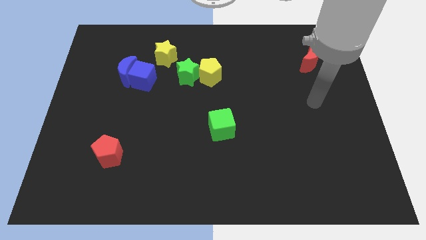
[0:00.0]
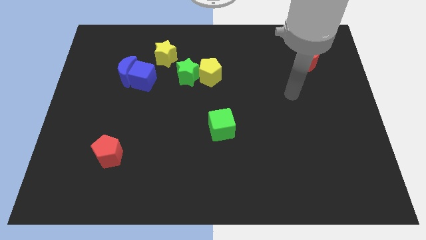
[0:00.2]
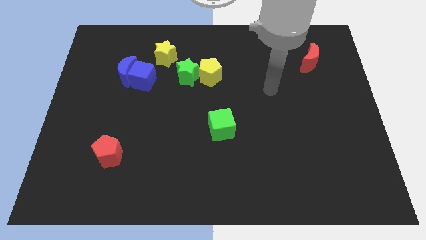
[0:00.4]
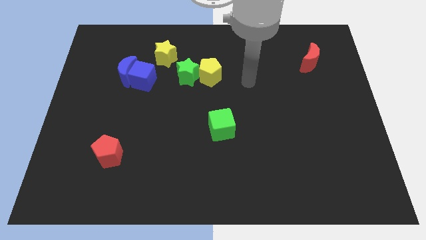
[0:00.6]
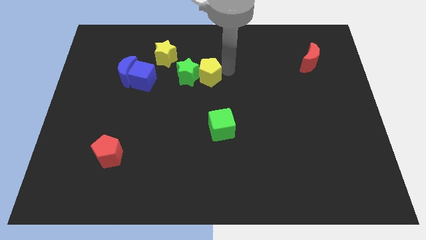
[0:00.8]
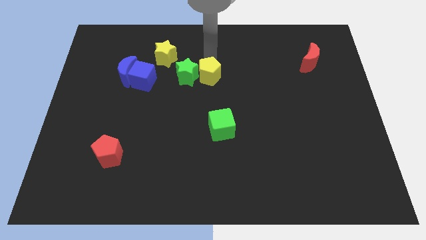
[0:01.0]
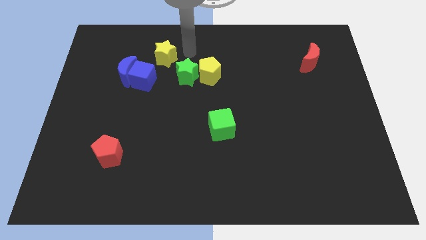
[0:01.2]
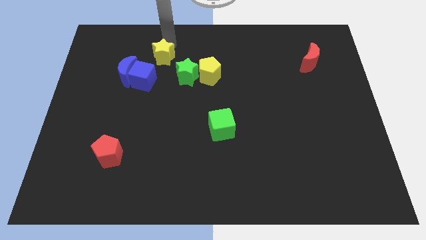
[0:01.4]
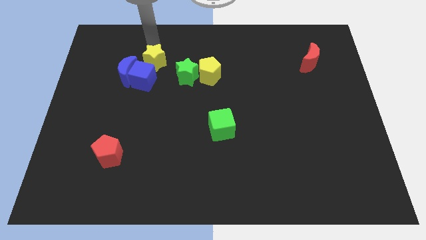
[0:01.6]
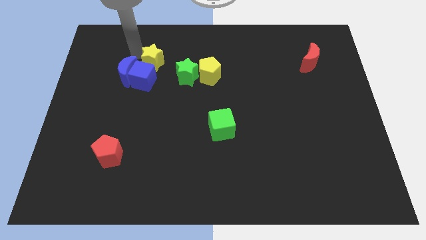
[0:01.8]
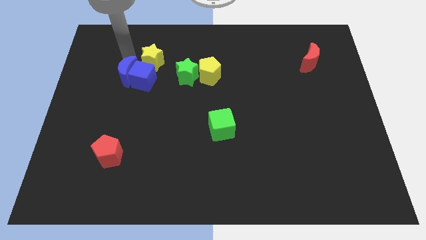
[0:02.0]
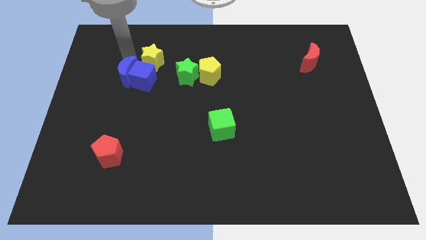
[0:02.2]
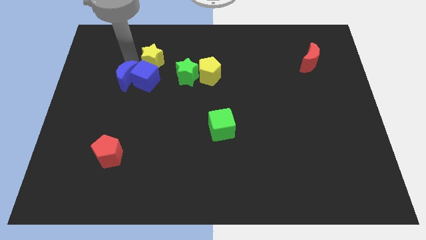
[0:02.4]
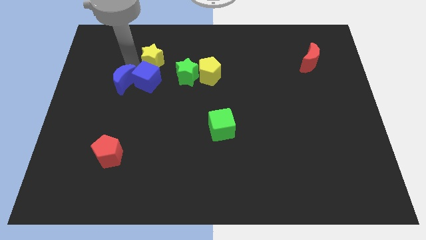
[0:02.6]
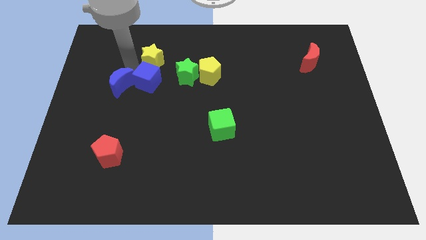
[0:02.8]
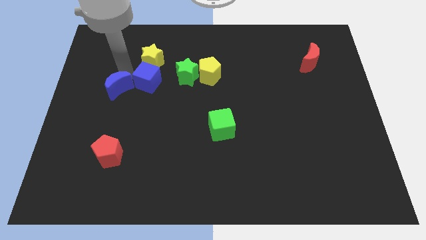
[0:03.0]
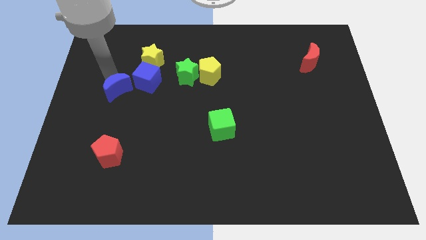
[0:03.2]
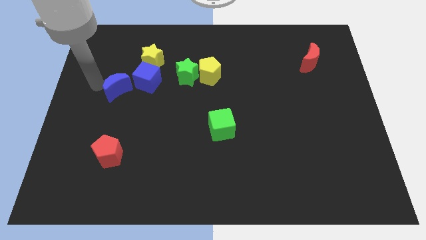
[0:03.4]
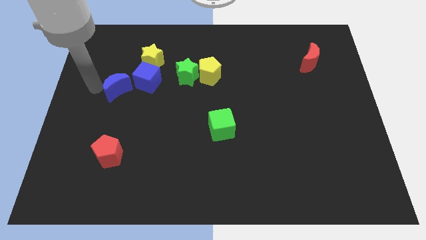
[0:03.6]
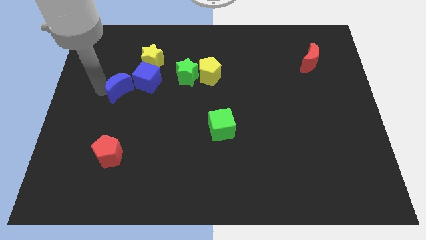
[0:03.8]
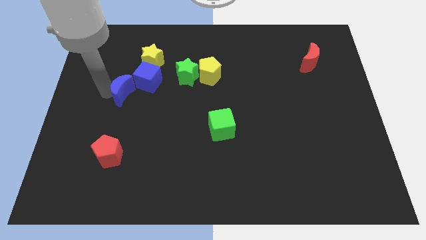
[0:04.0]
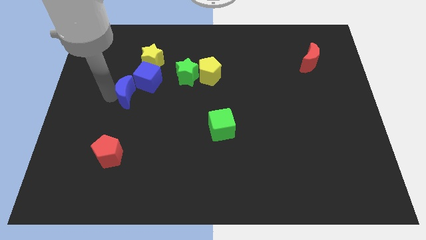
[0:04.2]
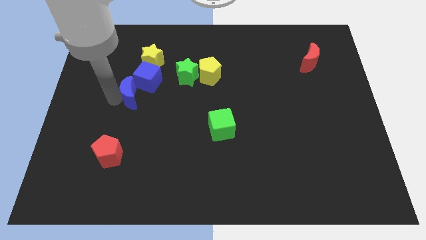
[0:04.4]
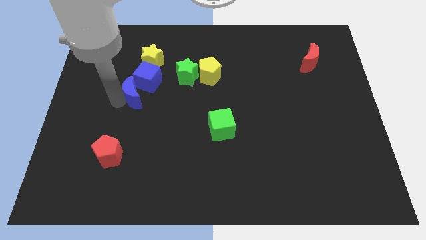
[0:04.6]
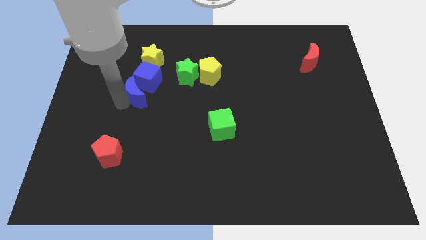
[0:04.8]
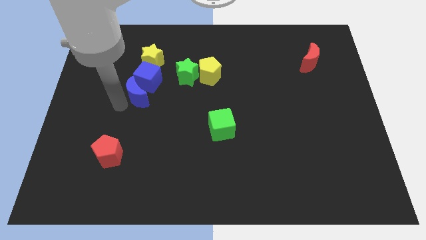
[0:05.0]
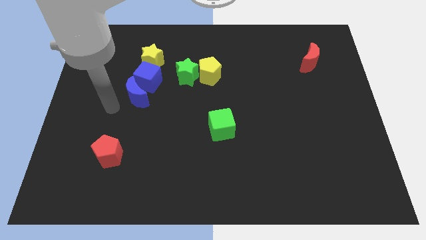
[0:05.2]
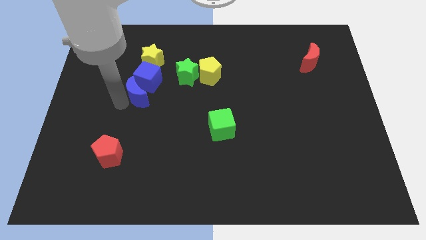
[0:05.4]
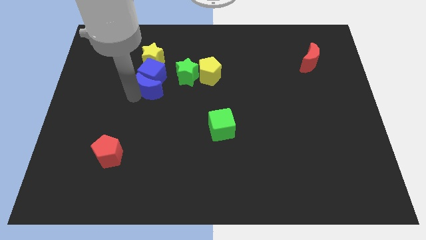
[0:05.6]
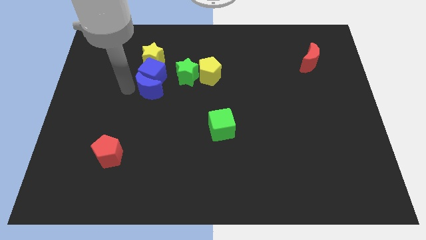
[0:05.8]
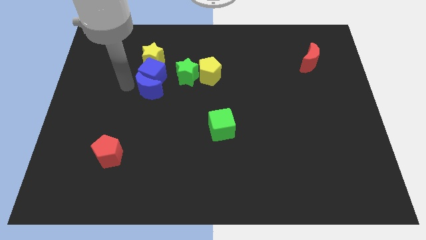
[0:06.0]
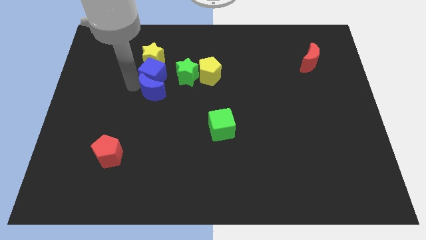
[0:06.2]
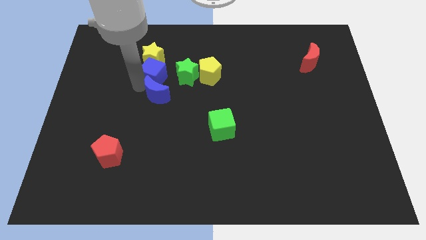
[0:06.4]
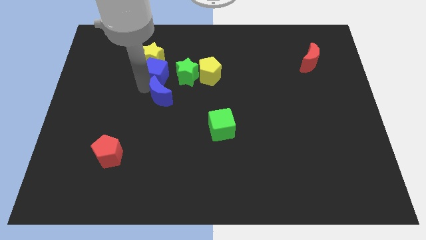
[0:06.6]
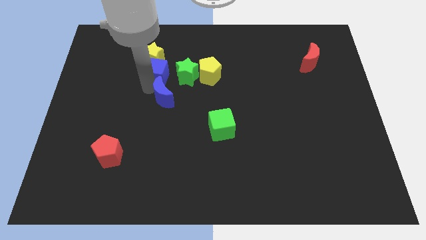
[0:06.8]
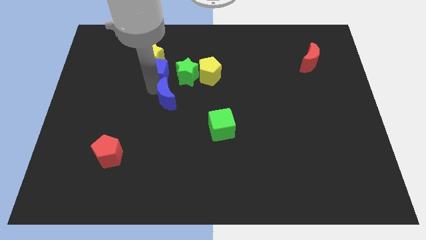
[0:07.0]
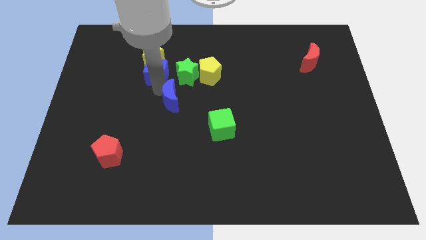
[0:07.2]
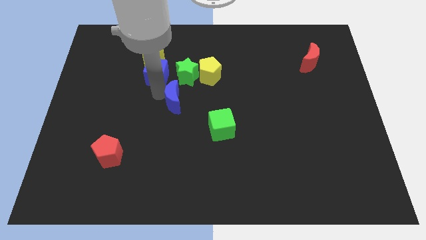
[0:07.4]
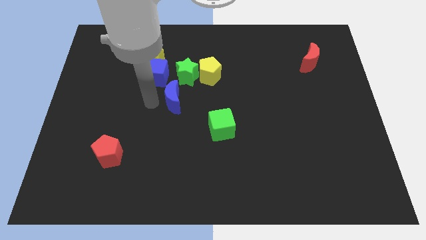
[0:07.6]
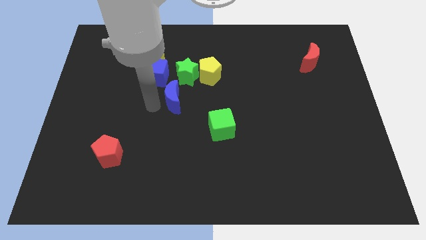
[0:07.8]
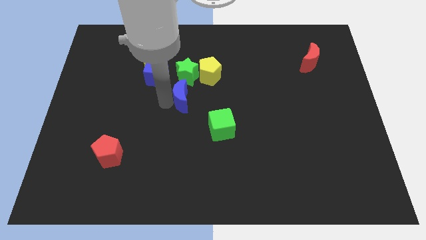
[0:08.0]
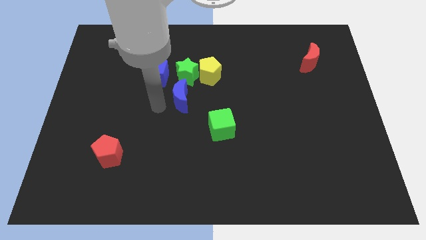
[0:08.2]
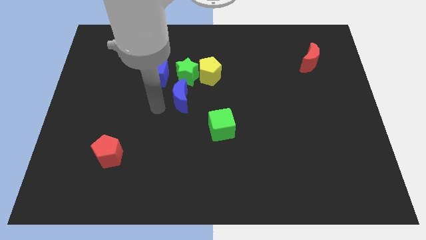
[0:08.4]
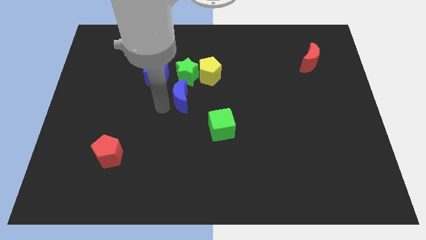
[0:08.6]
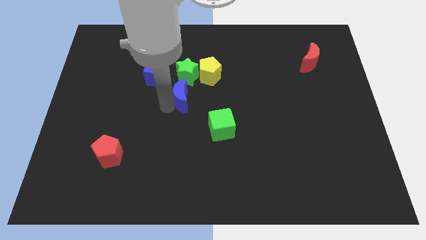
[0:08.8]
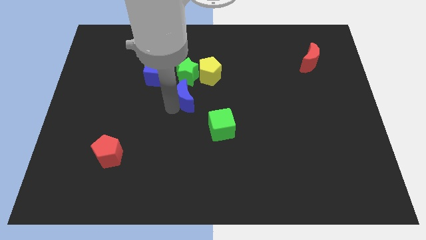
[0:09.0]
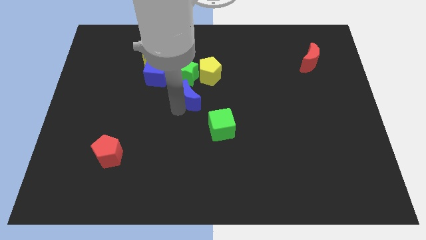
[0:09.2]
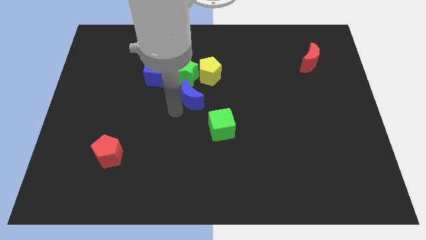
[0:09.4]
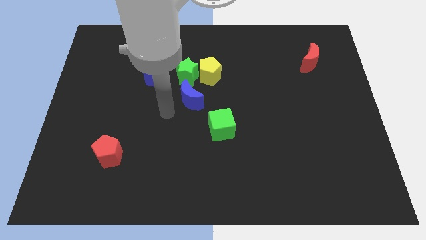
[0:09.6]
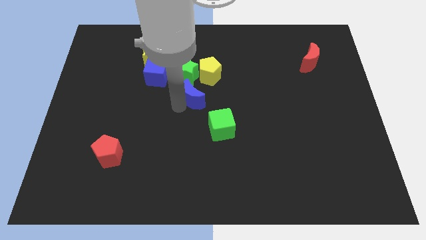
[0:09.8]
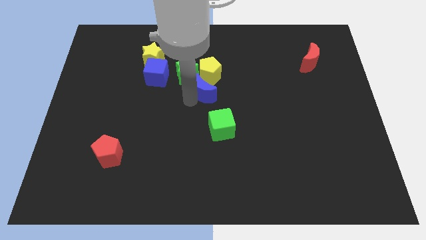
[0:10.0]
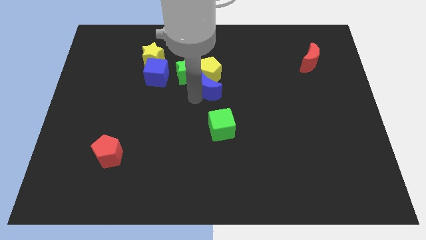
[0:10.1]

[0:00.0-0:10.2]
push the blue moon right of the green star

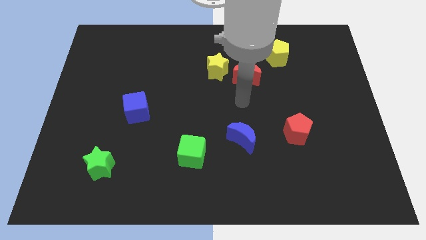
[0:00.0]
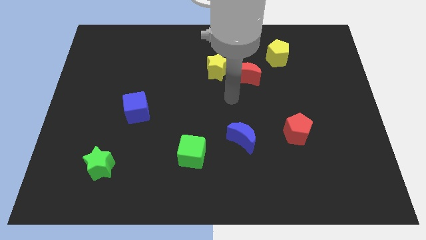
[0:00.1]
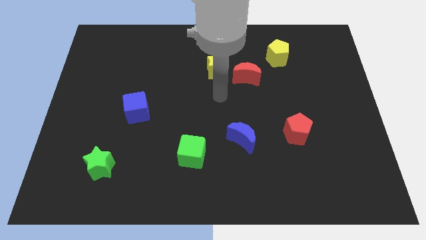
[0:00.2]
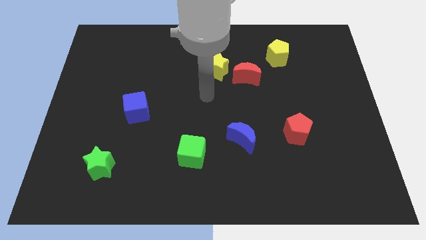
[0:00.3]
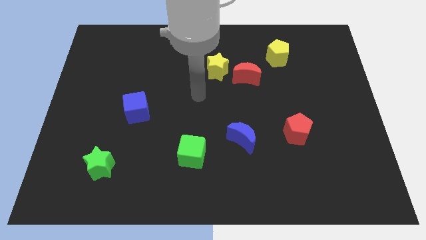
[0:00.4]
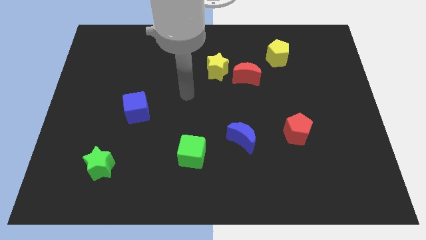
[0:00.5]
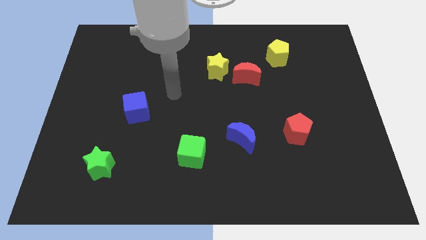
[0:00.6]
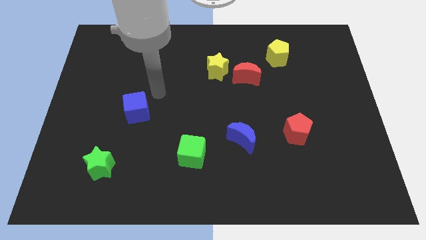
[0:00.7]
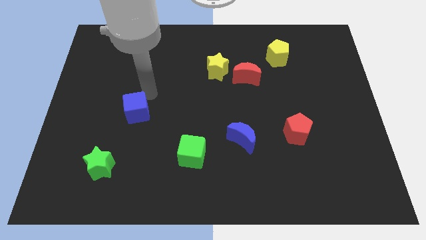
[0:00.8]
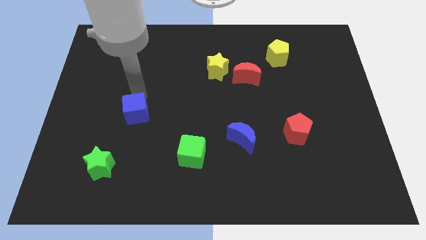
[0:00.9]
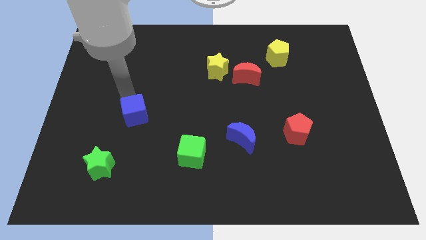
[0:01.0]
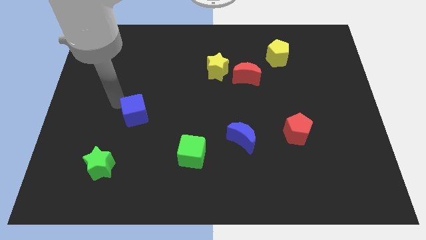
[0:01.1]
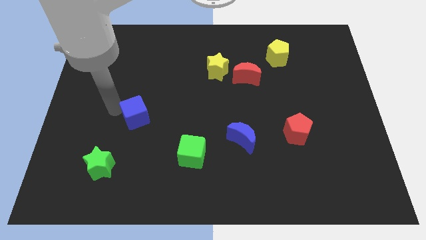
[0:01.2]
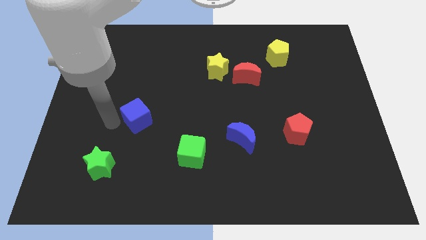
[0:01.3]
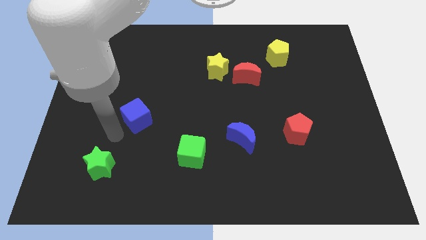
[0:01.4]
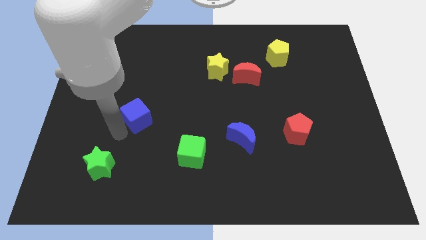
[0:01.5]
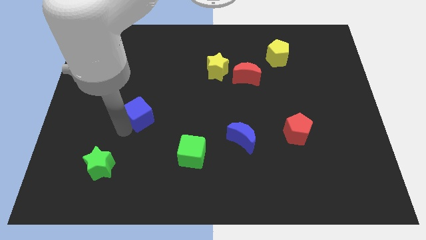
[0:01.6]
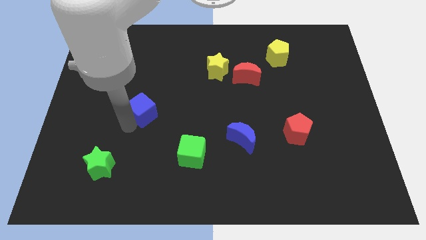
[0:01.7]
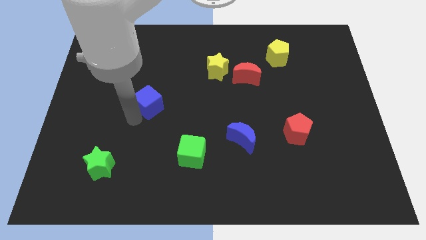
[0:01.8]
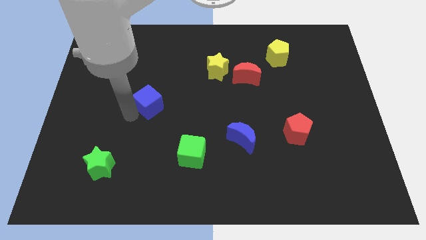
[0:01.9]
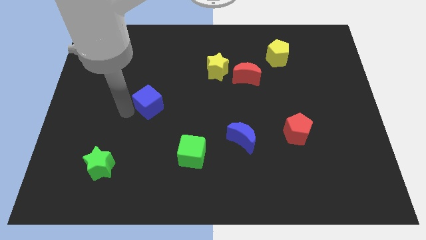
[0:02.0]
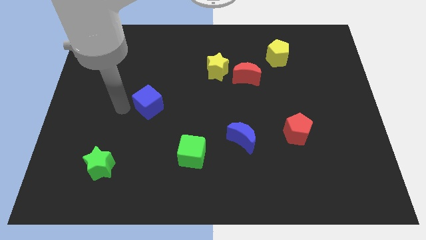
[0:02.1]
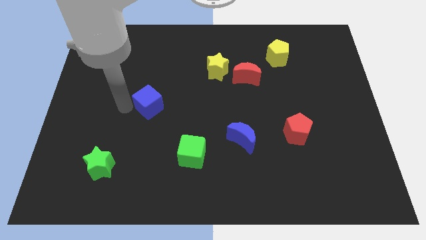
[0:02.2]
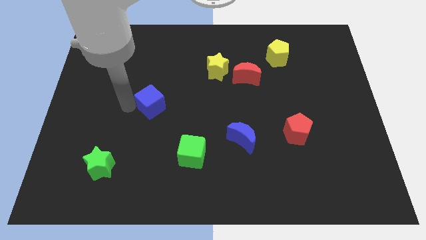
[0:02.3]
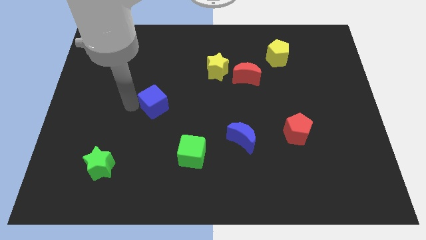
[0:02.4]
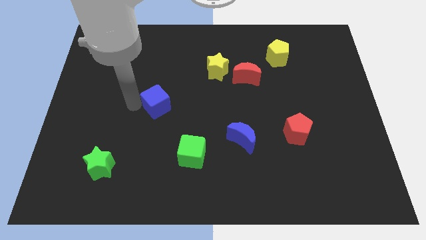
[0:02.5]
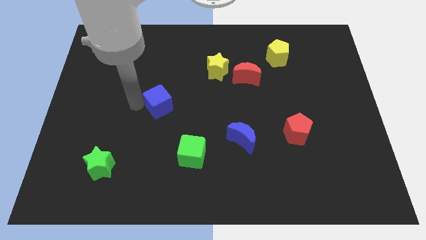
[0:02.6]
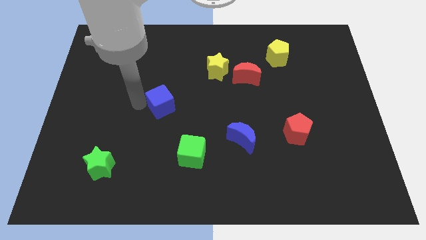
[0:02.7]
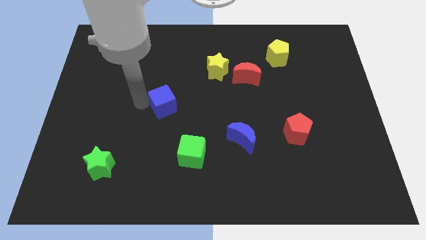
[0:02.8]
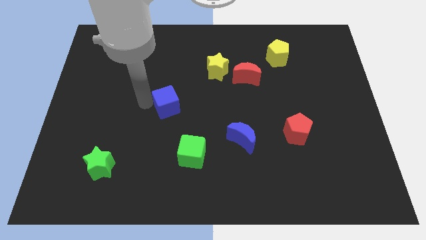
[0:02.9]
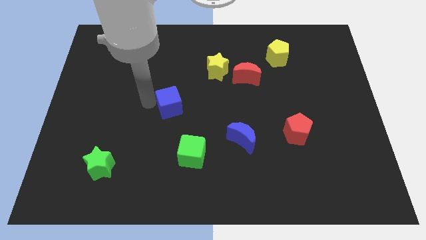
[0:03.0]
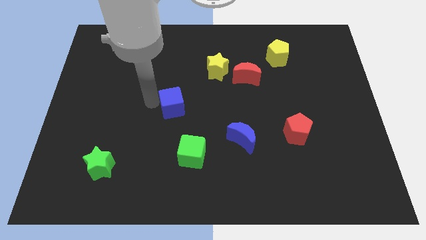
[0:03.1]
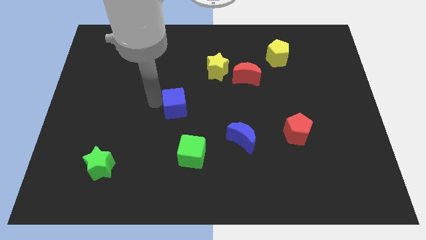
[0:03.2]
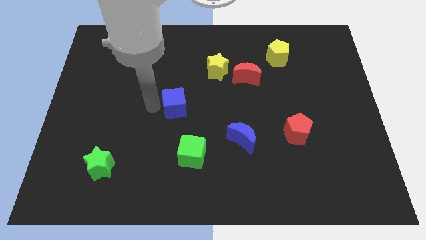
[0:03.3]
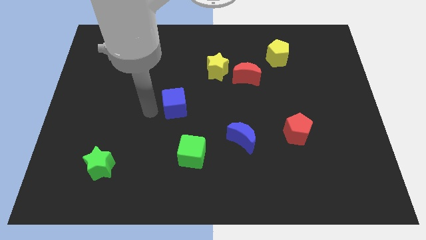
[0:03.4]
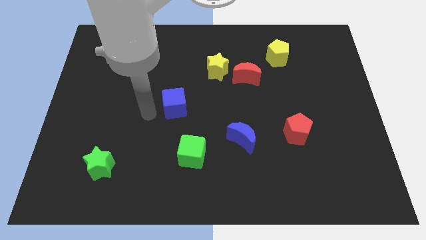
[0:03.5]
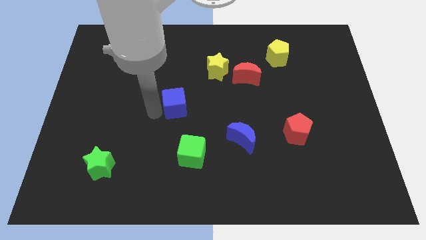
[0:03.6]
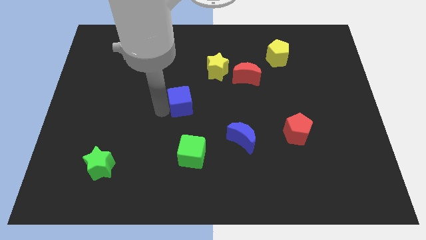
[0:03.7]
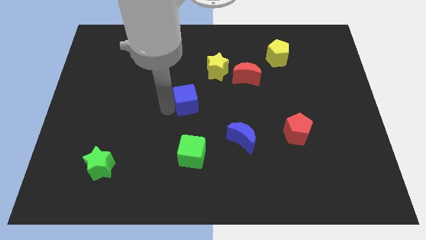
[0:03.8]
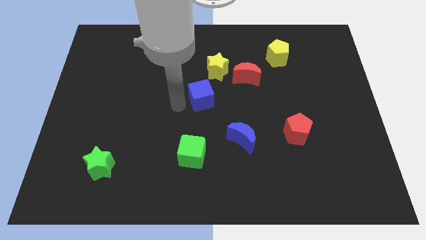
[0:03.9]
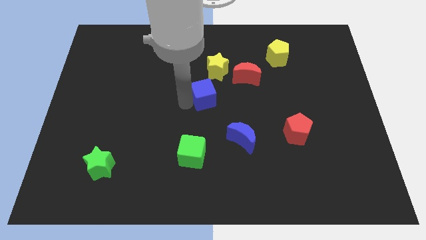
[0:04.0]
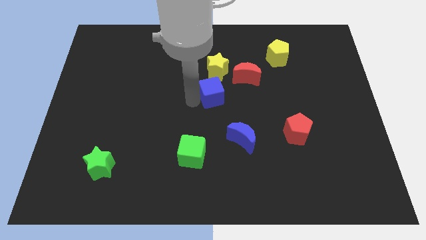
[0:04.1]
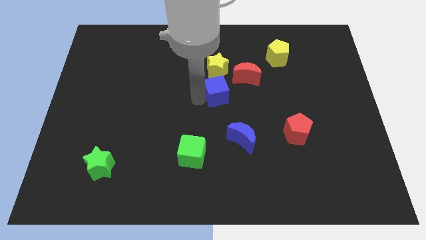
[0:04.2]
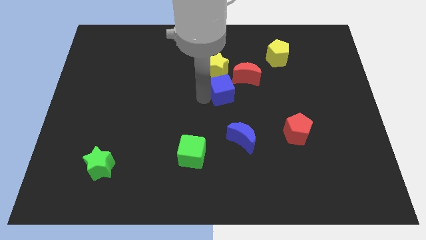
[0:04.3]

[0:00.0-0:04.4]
move the blue cube to the bottom right of the yellow star
